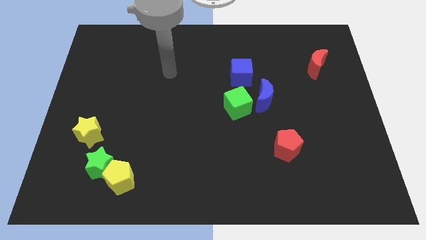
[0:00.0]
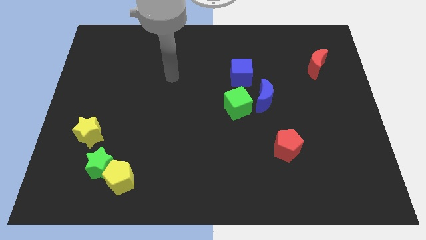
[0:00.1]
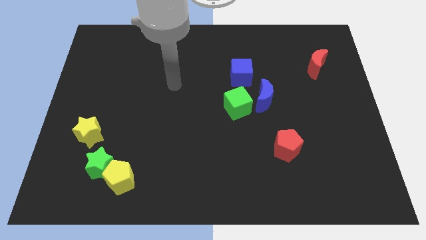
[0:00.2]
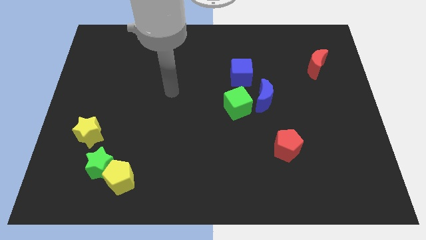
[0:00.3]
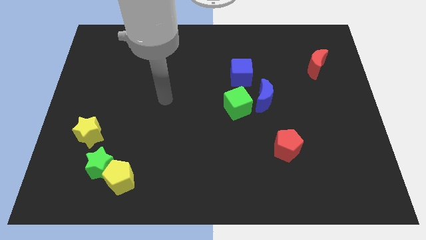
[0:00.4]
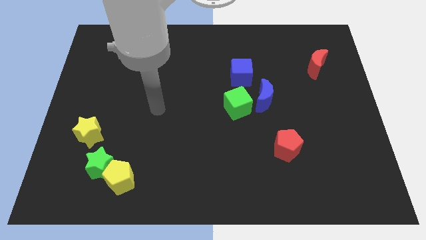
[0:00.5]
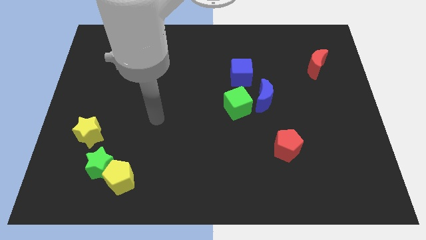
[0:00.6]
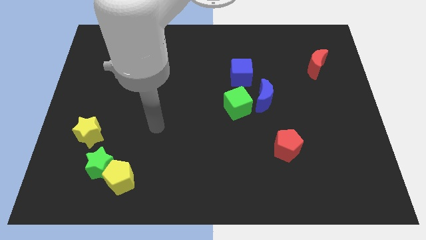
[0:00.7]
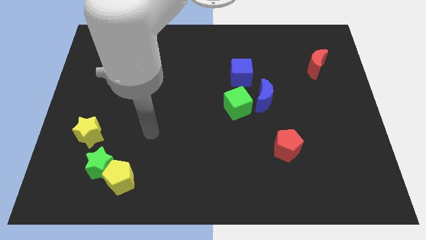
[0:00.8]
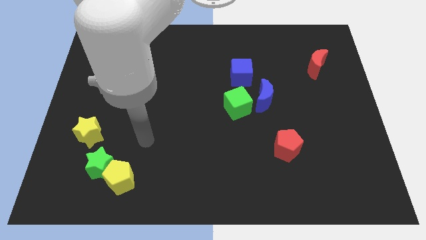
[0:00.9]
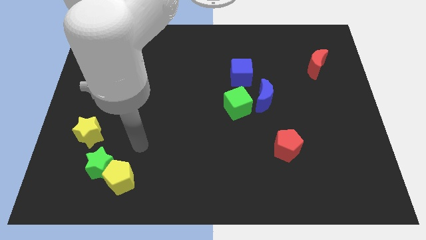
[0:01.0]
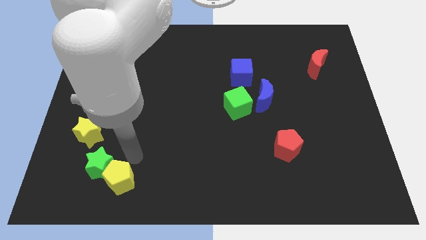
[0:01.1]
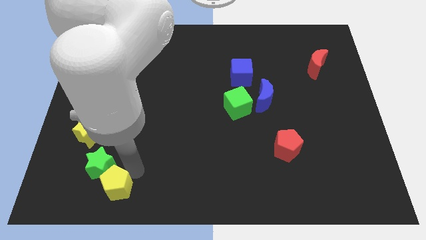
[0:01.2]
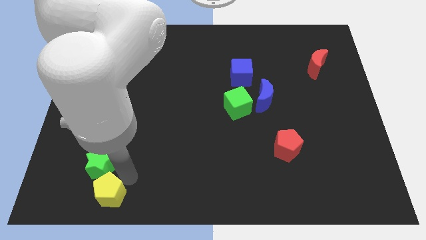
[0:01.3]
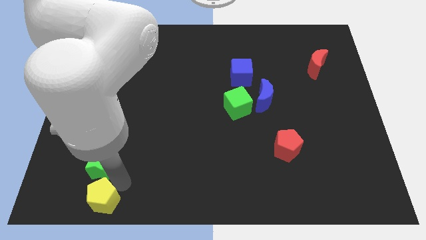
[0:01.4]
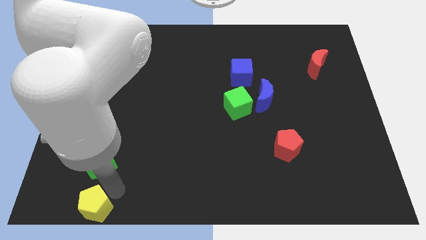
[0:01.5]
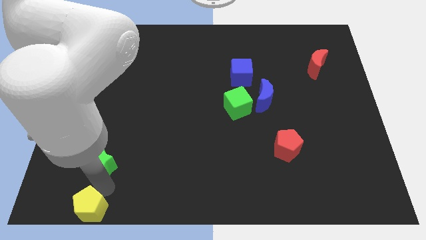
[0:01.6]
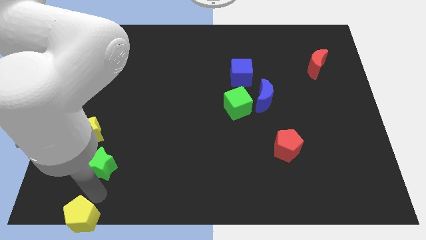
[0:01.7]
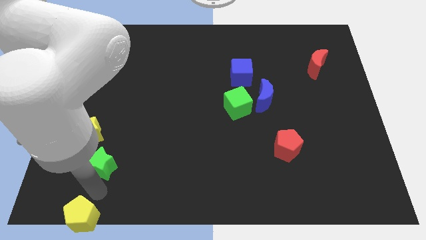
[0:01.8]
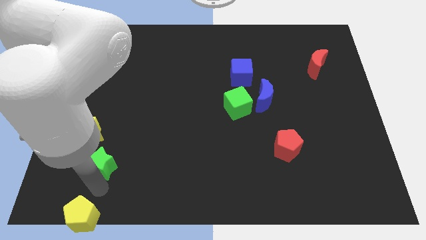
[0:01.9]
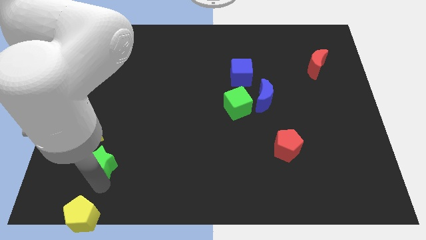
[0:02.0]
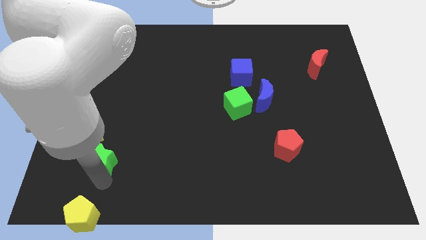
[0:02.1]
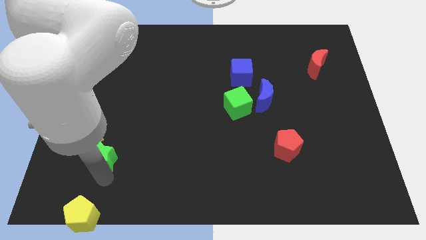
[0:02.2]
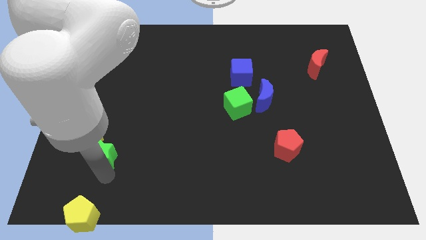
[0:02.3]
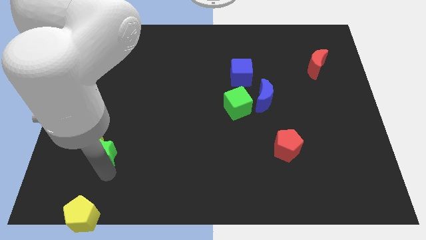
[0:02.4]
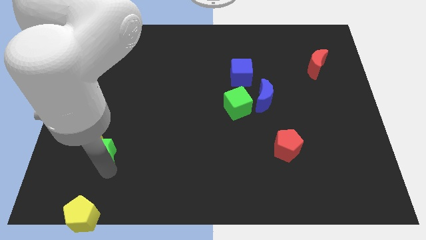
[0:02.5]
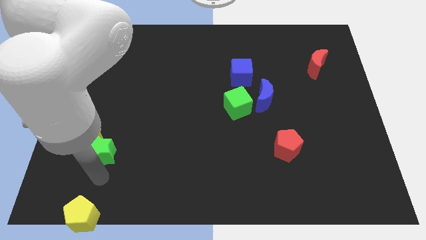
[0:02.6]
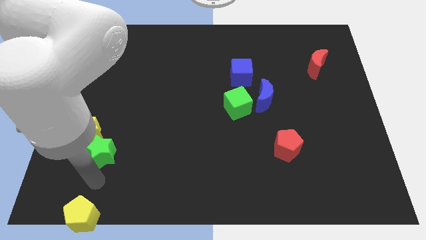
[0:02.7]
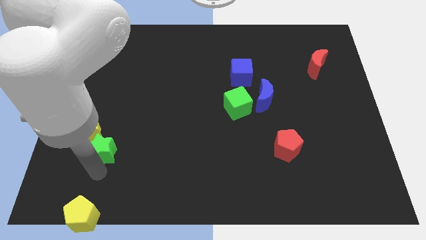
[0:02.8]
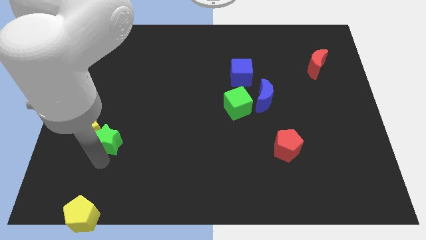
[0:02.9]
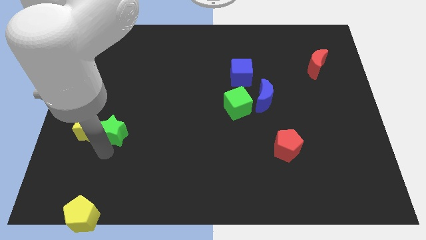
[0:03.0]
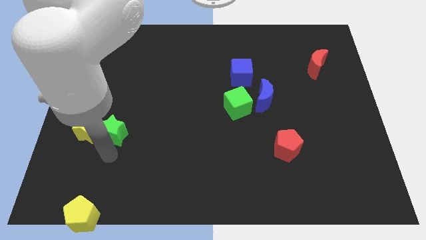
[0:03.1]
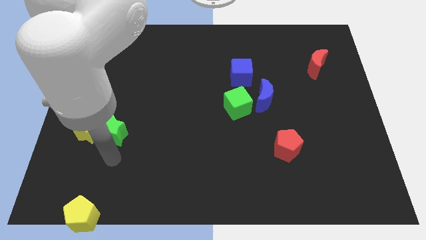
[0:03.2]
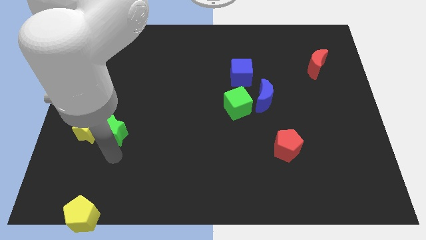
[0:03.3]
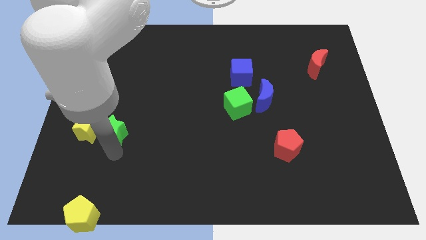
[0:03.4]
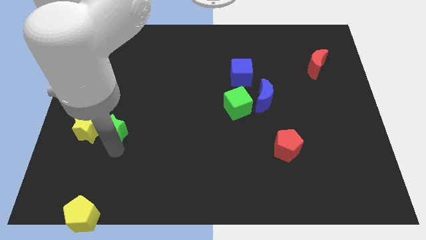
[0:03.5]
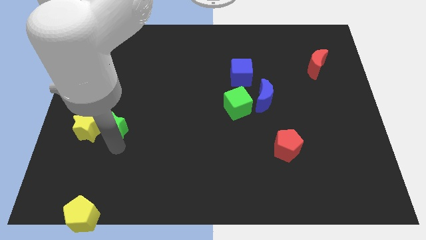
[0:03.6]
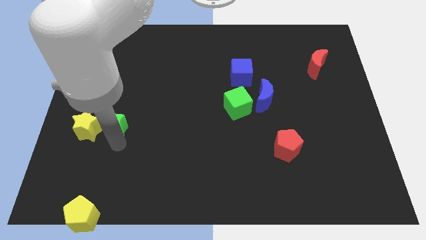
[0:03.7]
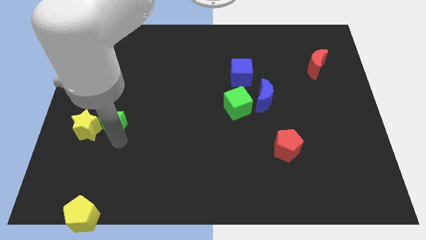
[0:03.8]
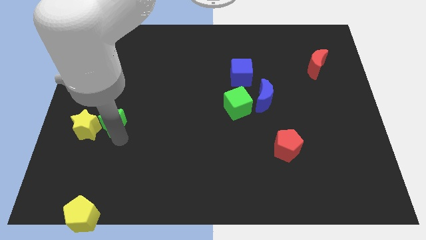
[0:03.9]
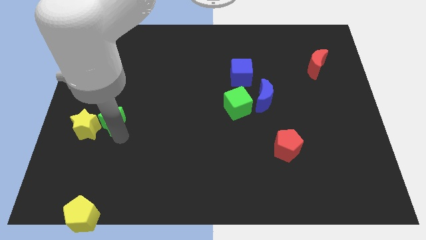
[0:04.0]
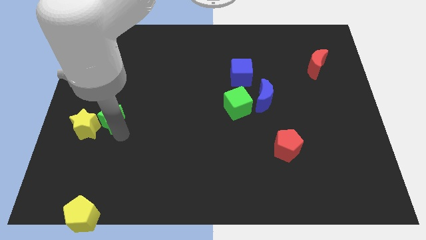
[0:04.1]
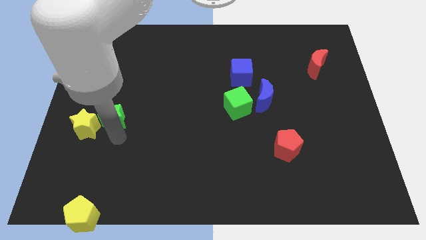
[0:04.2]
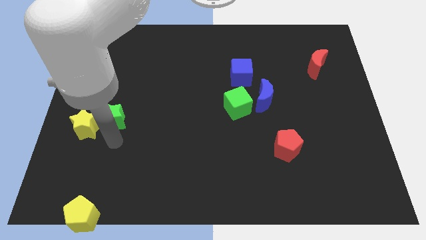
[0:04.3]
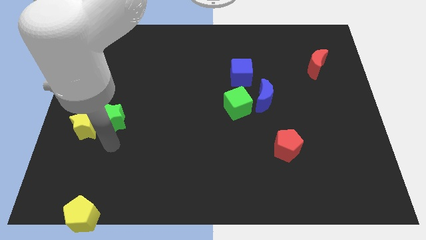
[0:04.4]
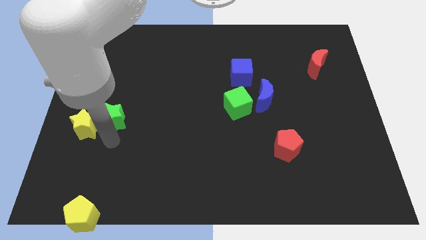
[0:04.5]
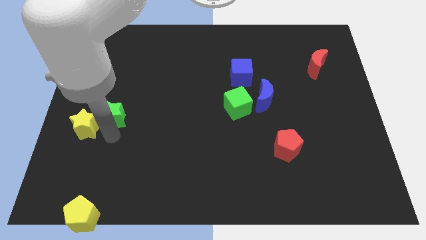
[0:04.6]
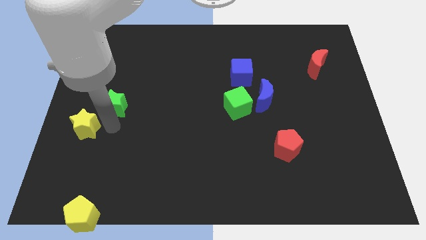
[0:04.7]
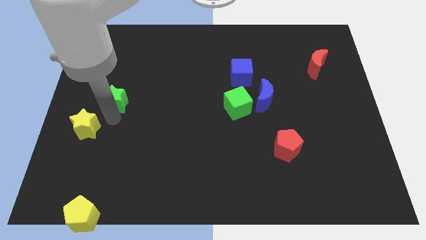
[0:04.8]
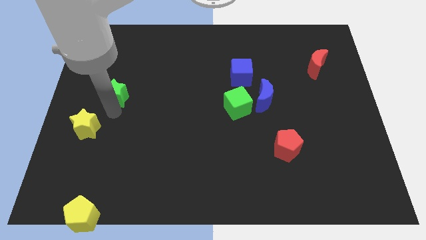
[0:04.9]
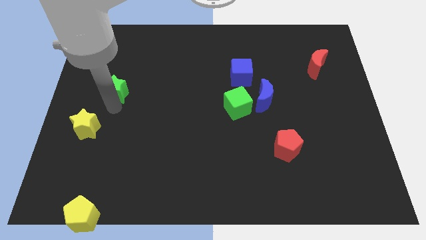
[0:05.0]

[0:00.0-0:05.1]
slide the green star upwards

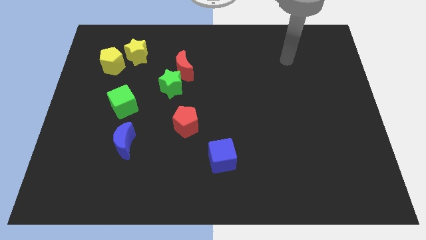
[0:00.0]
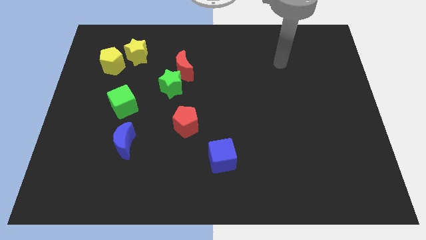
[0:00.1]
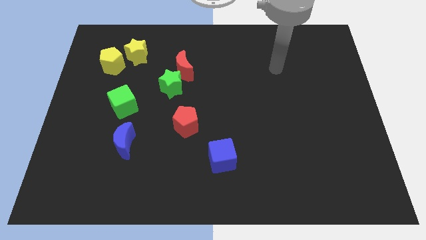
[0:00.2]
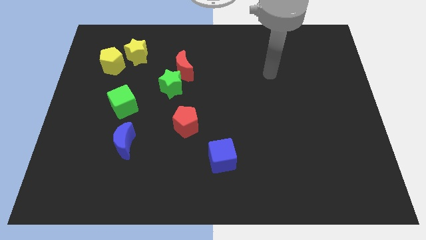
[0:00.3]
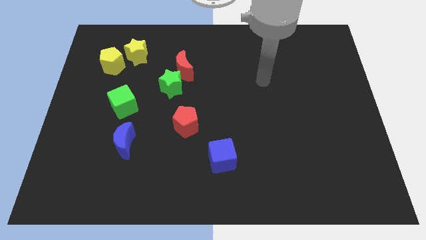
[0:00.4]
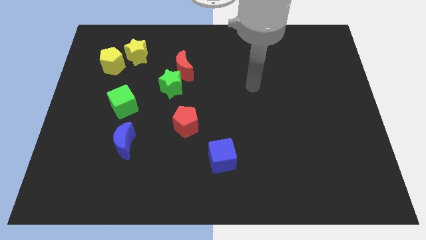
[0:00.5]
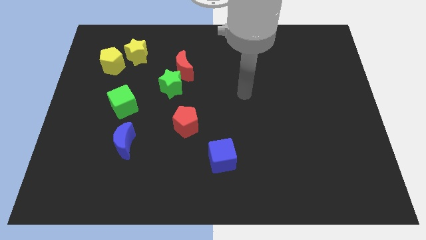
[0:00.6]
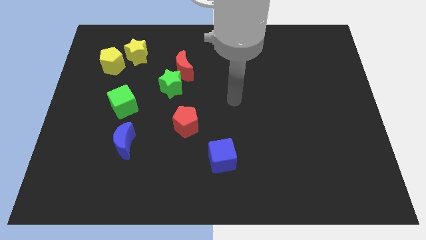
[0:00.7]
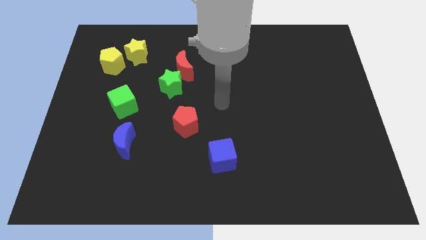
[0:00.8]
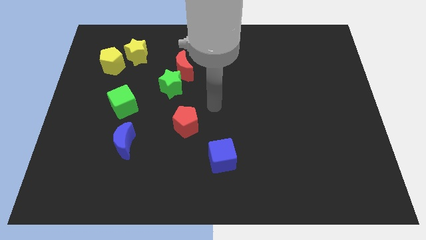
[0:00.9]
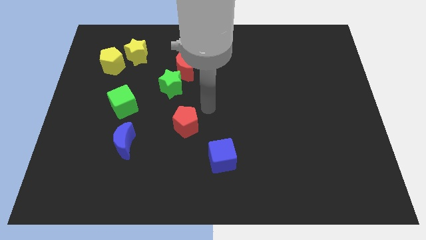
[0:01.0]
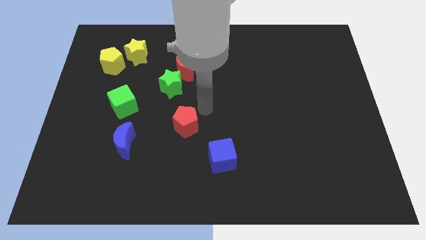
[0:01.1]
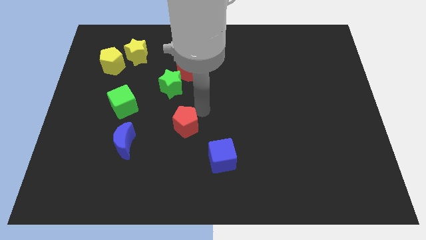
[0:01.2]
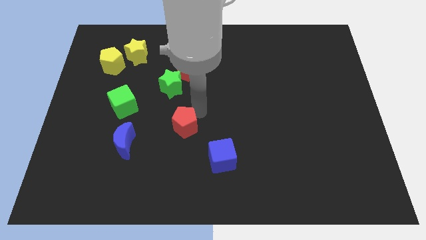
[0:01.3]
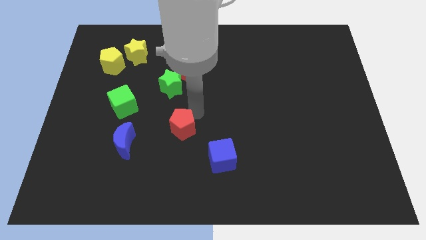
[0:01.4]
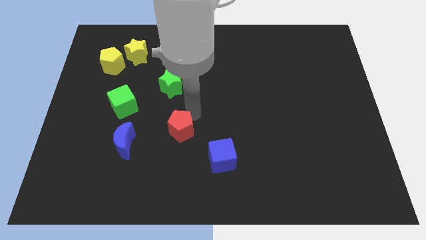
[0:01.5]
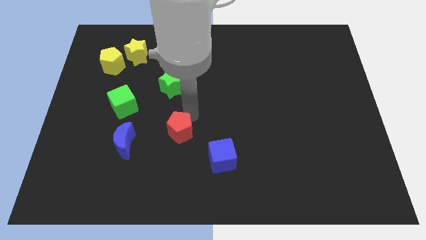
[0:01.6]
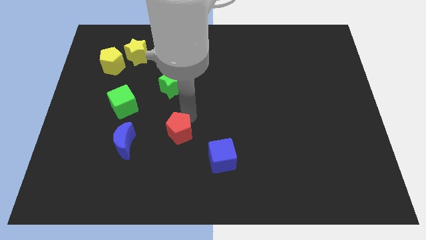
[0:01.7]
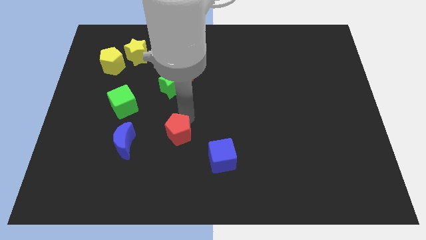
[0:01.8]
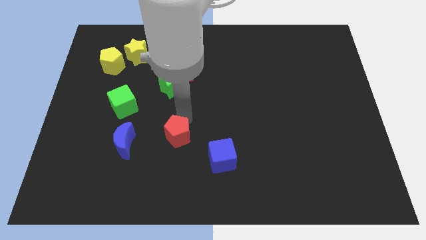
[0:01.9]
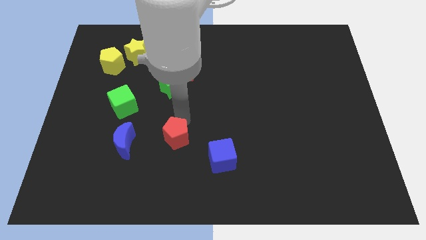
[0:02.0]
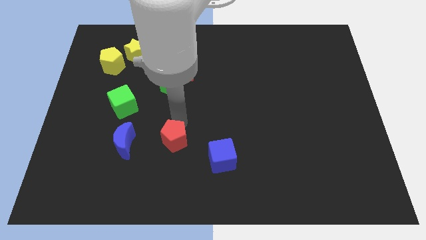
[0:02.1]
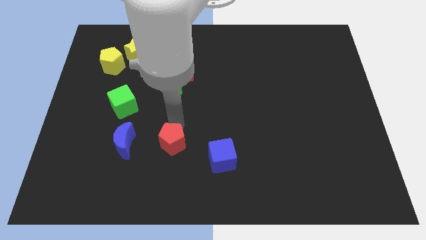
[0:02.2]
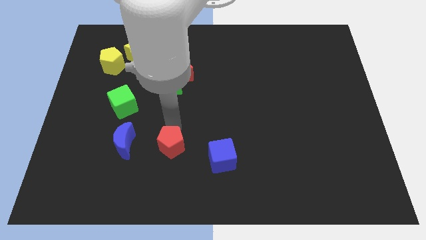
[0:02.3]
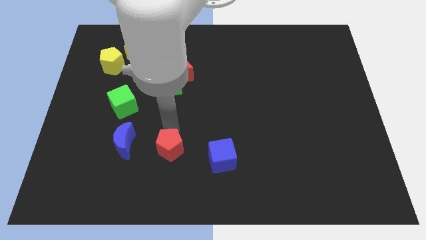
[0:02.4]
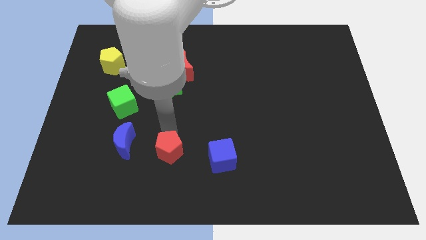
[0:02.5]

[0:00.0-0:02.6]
push the red pentagon a bit down and to the left

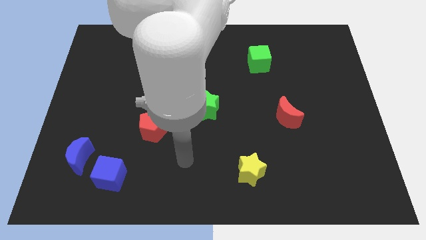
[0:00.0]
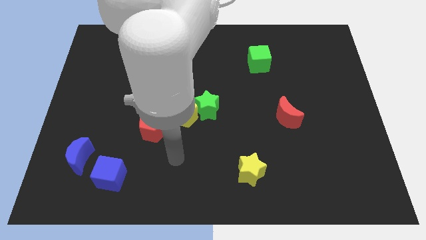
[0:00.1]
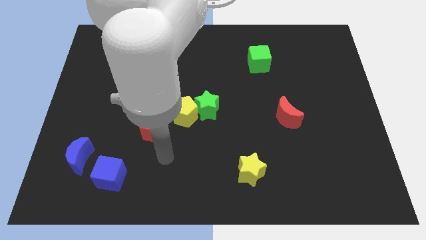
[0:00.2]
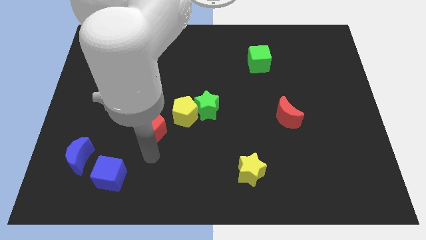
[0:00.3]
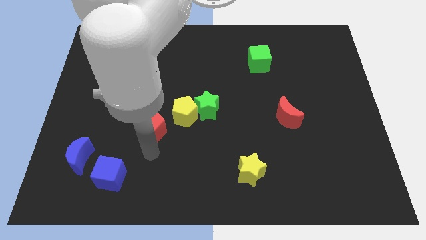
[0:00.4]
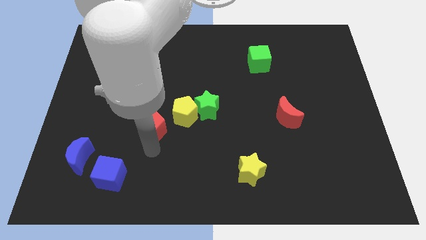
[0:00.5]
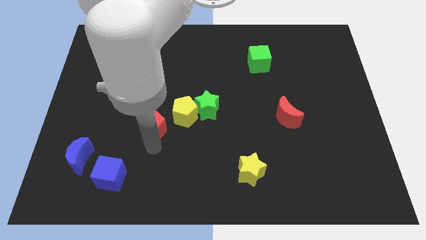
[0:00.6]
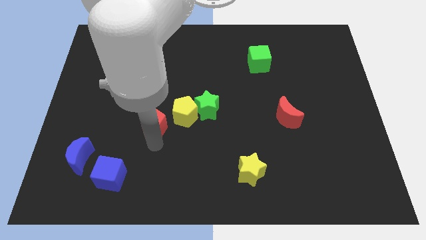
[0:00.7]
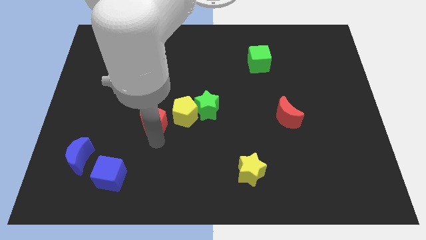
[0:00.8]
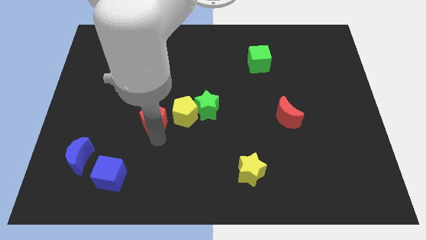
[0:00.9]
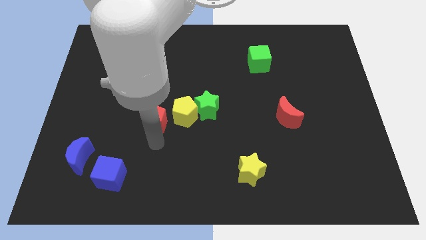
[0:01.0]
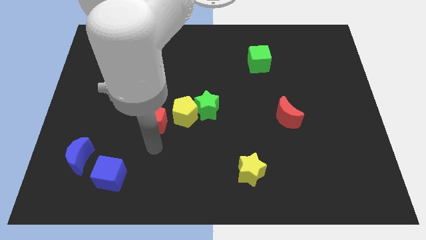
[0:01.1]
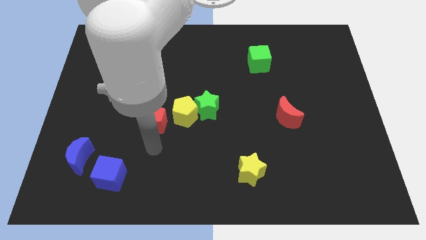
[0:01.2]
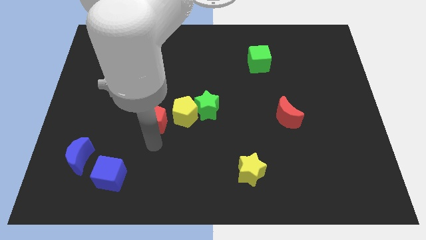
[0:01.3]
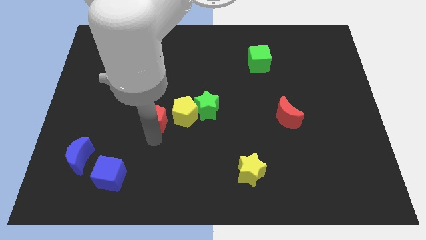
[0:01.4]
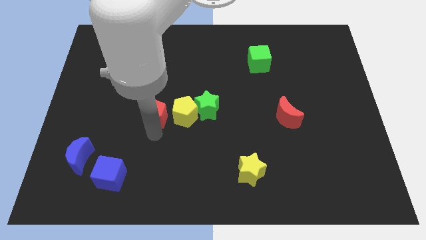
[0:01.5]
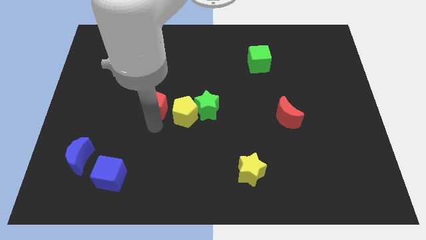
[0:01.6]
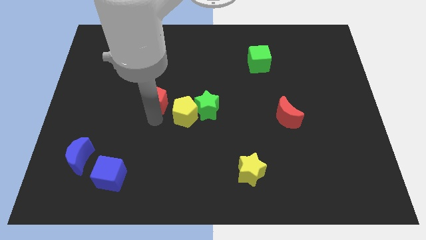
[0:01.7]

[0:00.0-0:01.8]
move the red pentagon somewhat up
